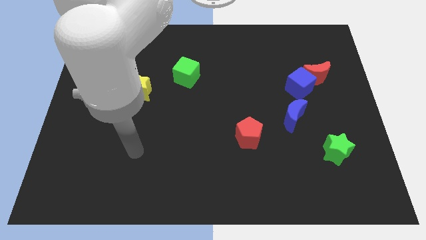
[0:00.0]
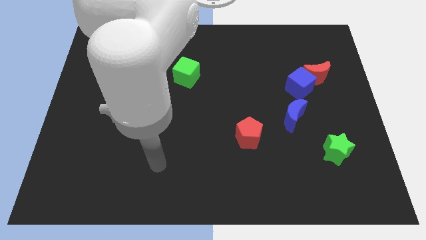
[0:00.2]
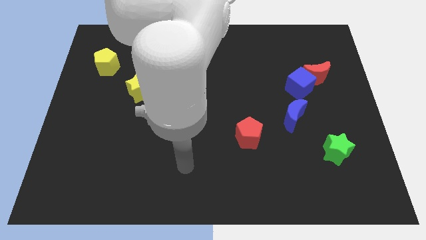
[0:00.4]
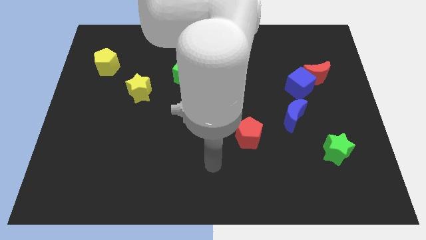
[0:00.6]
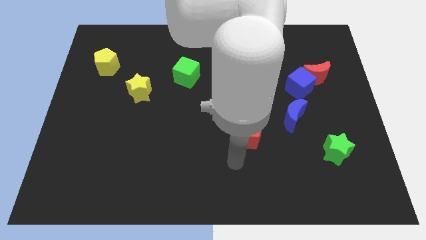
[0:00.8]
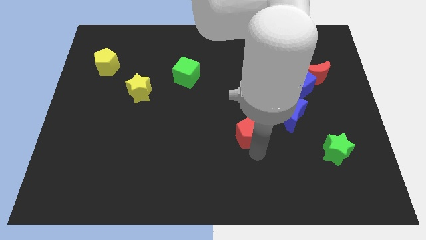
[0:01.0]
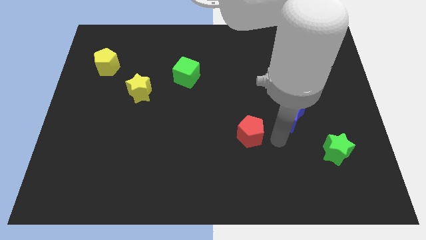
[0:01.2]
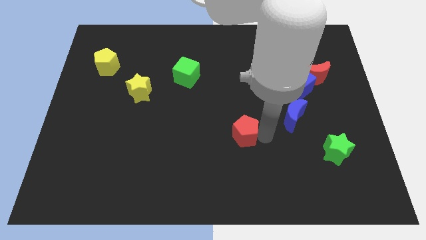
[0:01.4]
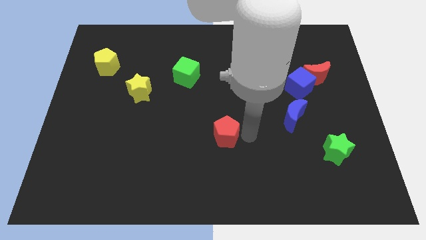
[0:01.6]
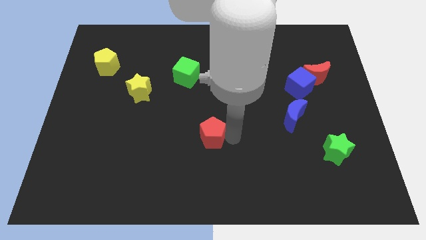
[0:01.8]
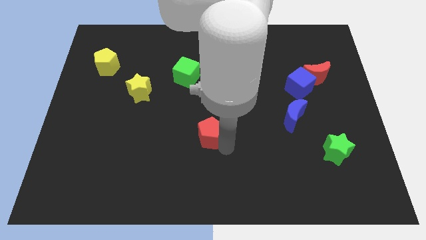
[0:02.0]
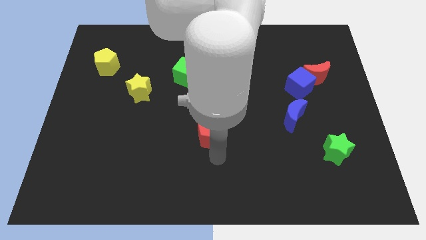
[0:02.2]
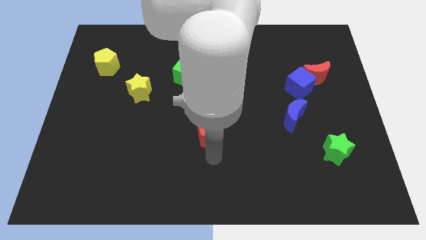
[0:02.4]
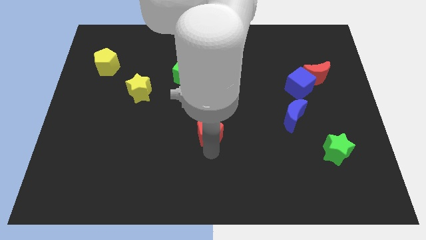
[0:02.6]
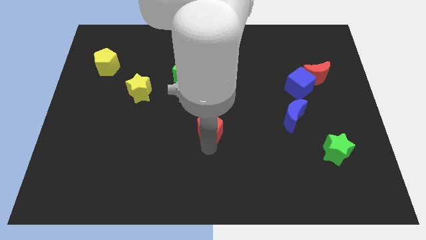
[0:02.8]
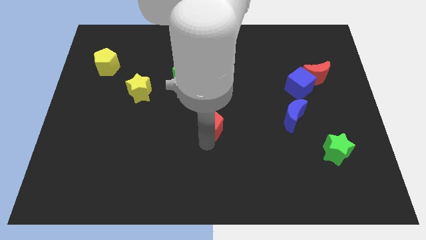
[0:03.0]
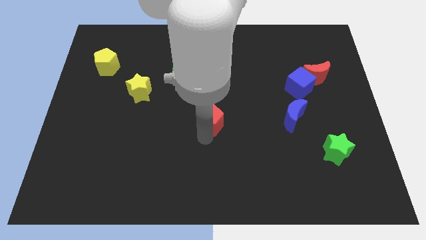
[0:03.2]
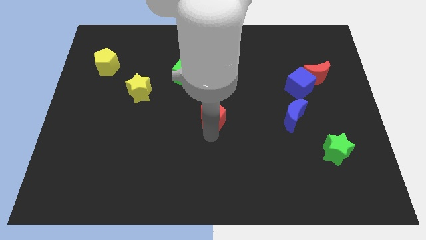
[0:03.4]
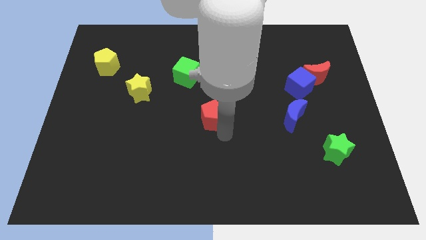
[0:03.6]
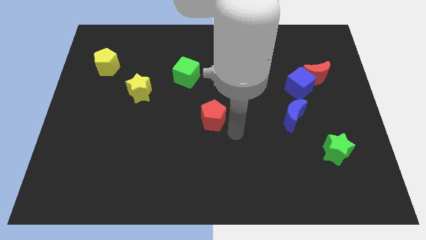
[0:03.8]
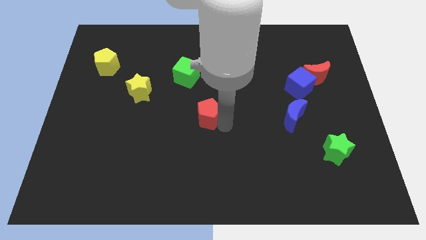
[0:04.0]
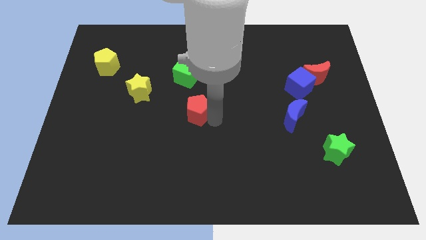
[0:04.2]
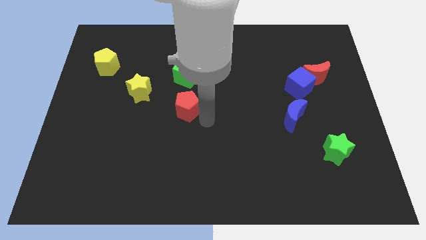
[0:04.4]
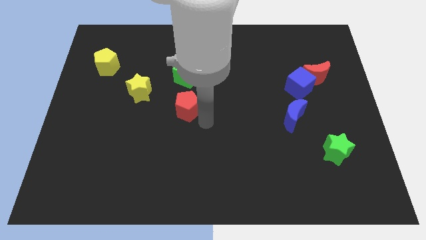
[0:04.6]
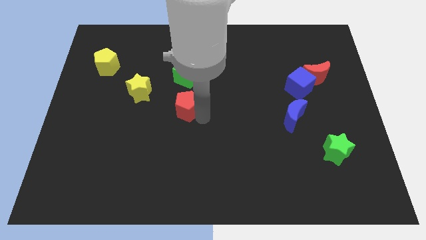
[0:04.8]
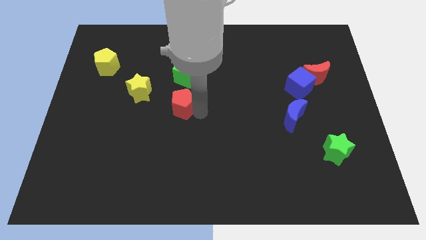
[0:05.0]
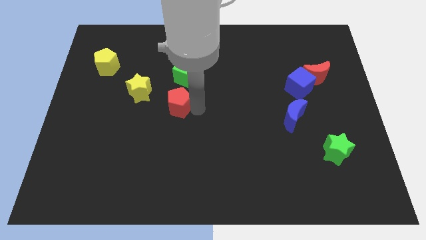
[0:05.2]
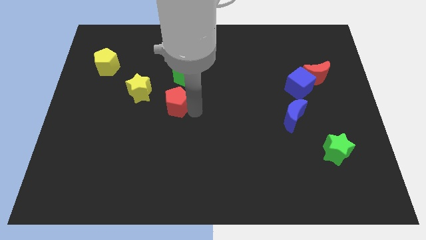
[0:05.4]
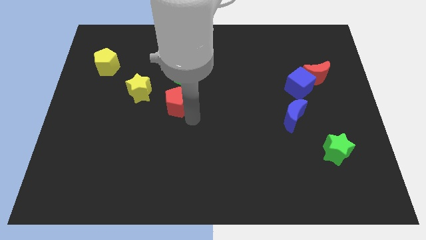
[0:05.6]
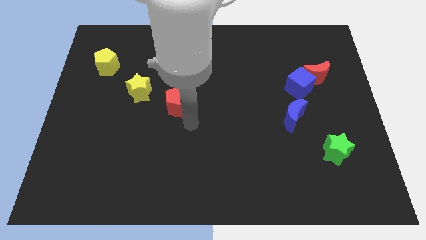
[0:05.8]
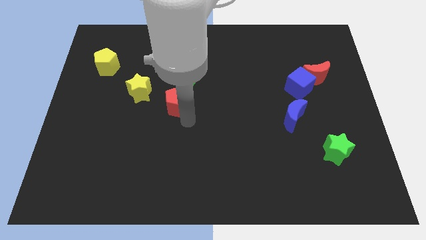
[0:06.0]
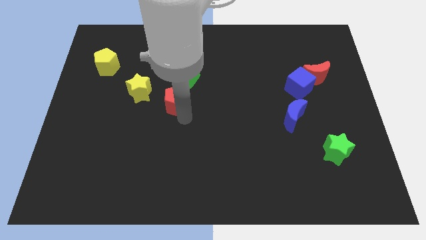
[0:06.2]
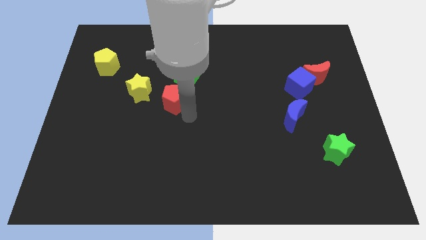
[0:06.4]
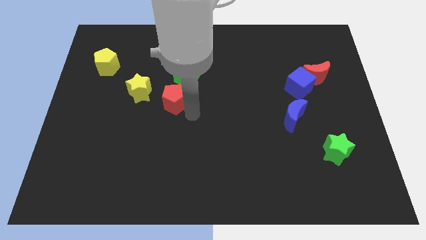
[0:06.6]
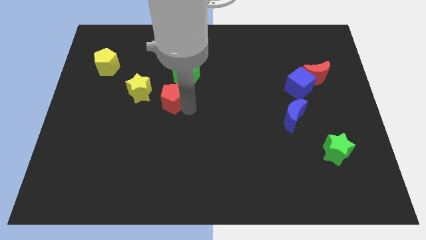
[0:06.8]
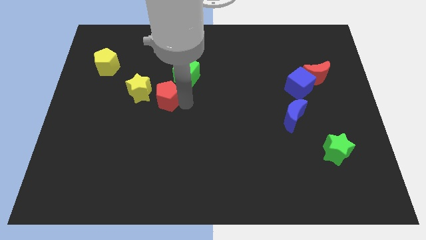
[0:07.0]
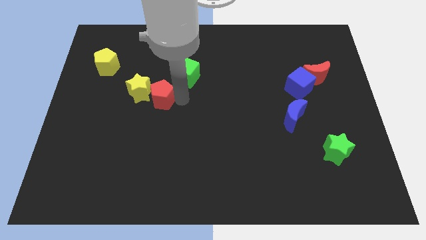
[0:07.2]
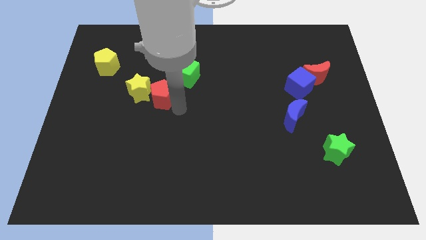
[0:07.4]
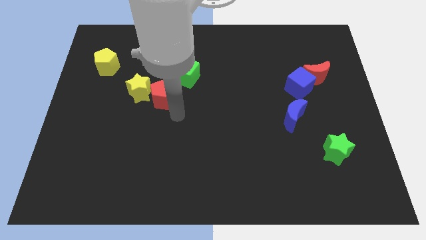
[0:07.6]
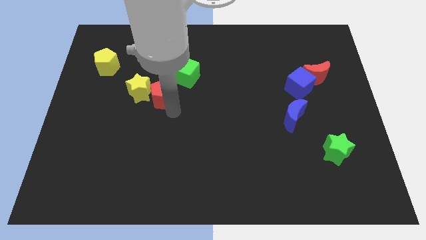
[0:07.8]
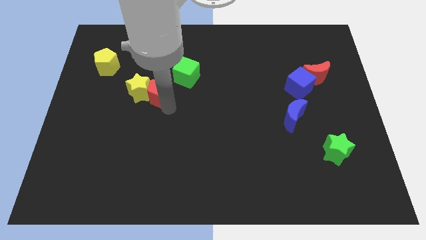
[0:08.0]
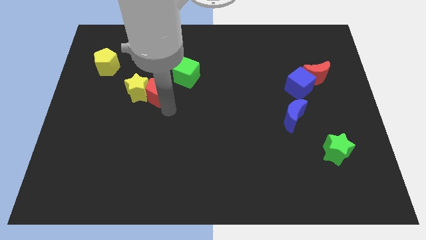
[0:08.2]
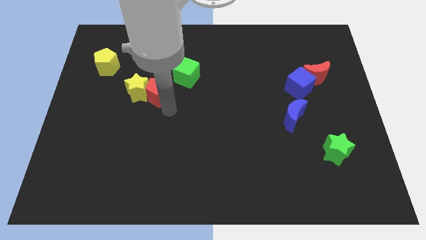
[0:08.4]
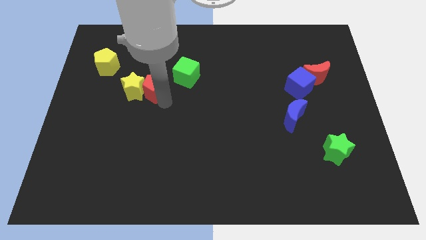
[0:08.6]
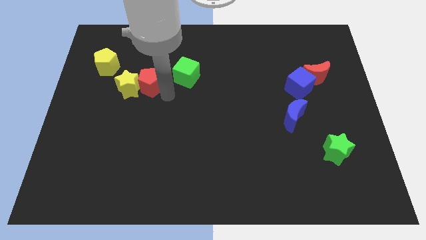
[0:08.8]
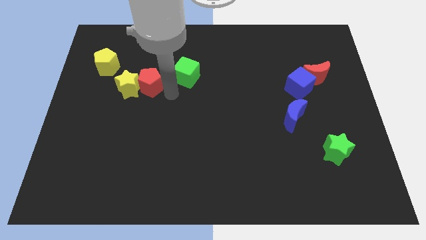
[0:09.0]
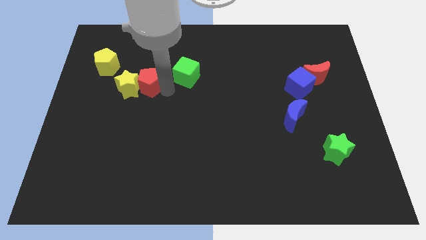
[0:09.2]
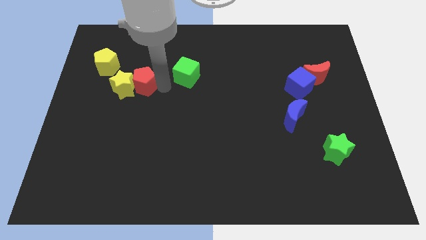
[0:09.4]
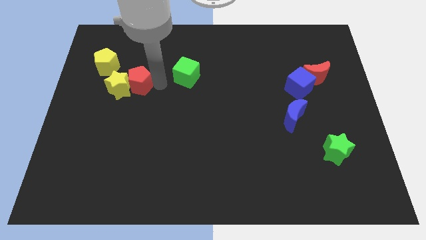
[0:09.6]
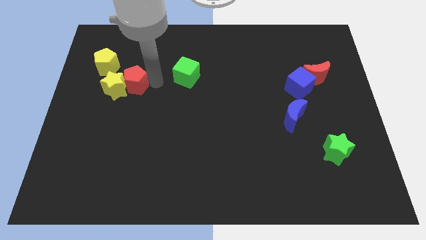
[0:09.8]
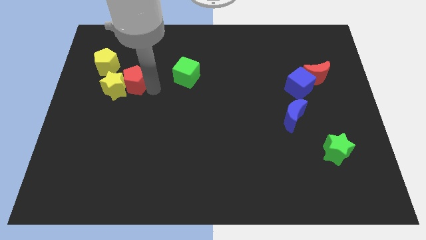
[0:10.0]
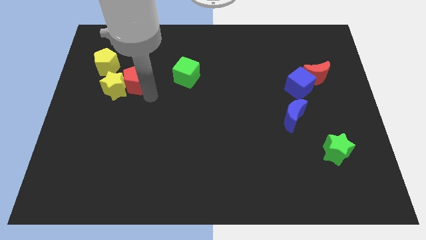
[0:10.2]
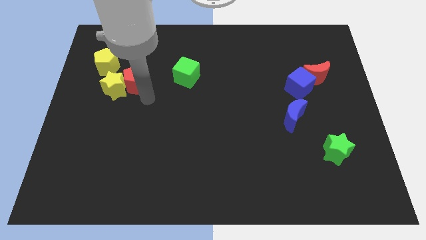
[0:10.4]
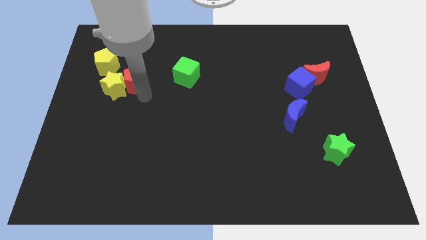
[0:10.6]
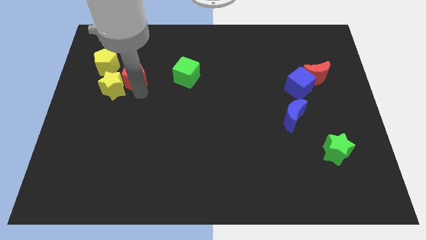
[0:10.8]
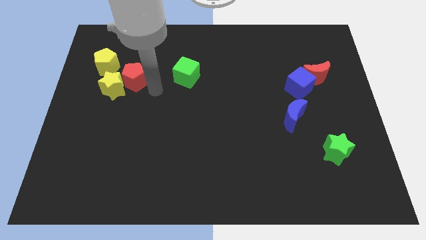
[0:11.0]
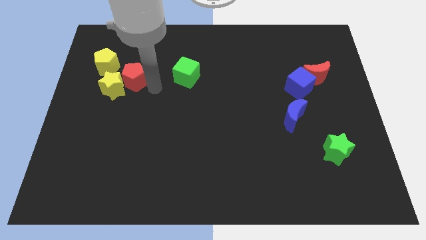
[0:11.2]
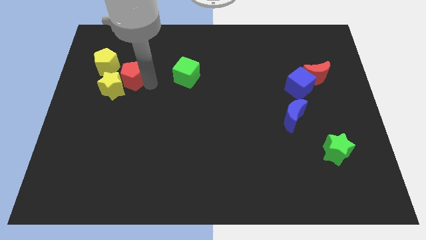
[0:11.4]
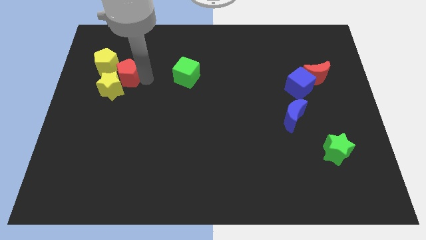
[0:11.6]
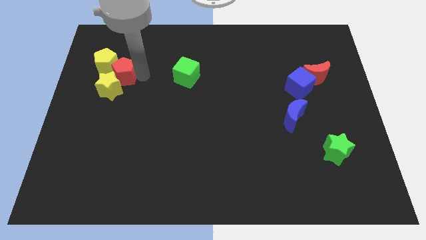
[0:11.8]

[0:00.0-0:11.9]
push the red pentagon towards the yellow pentagon
